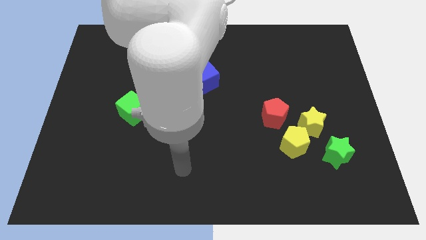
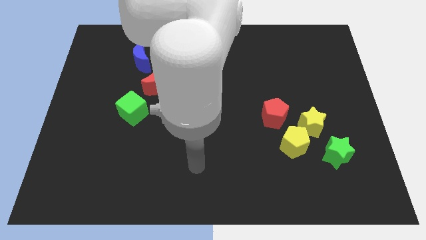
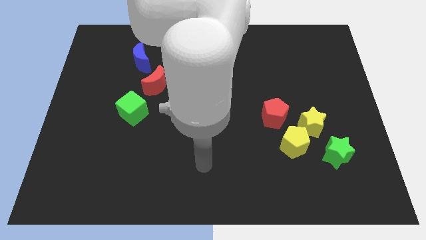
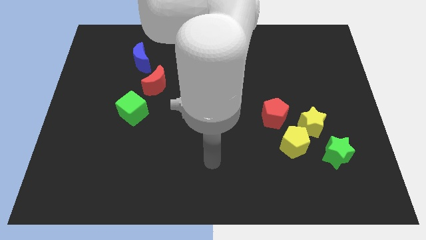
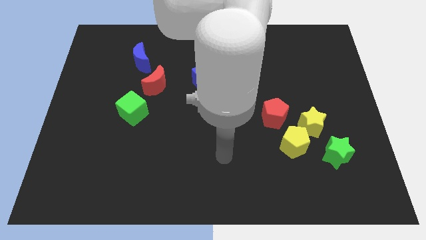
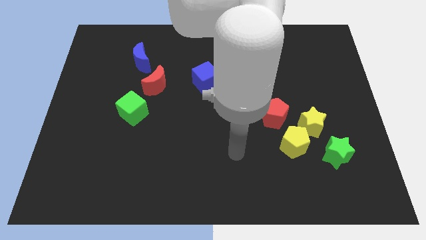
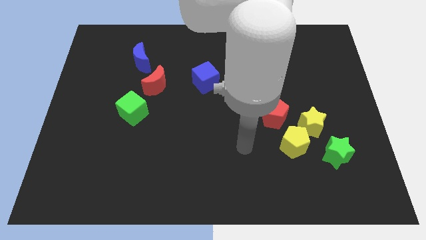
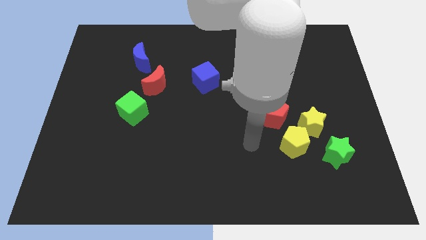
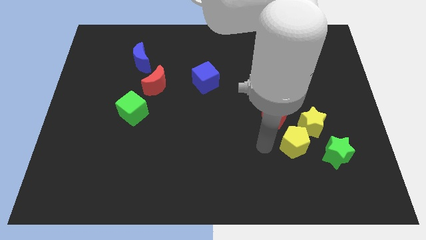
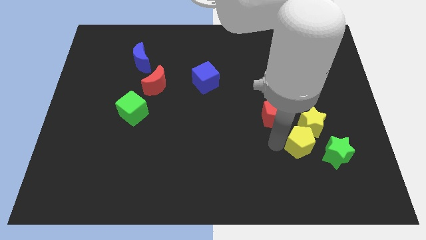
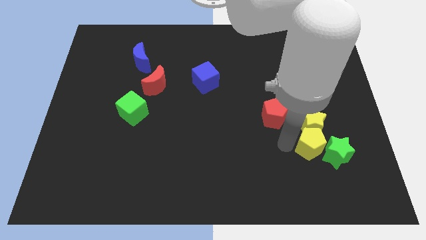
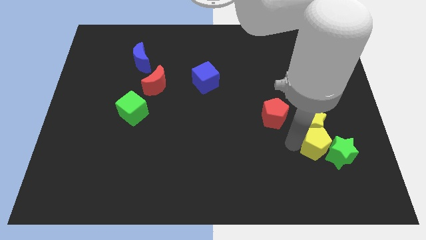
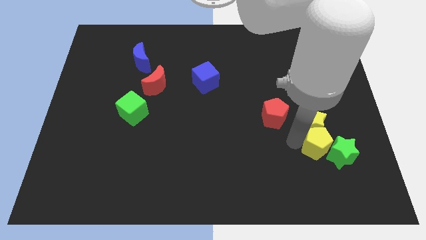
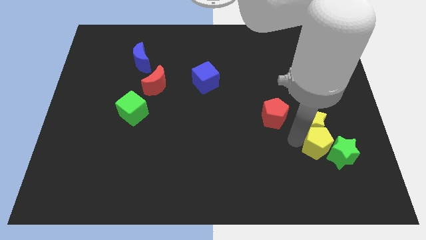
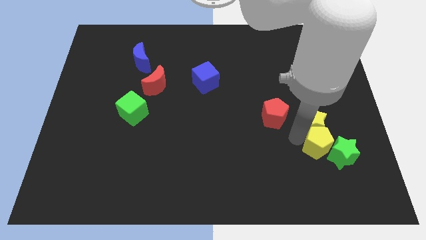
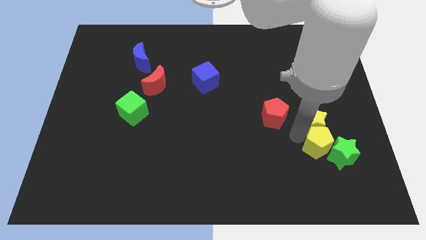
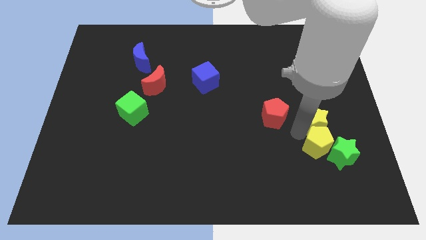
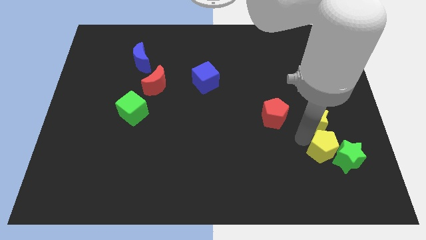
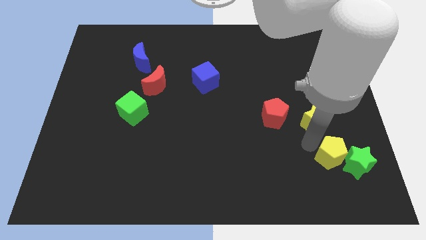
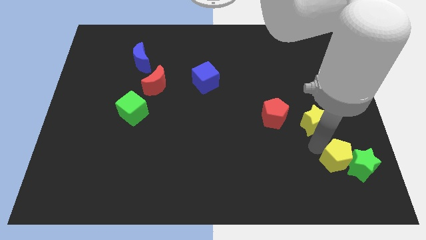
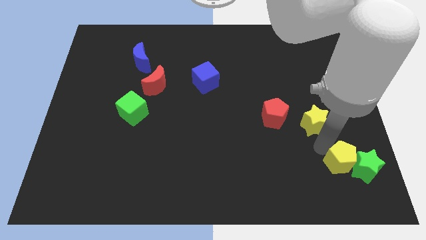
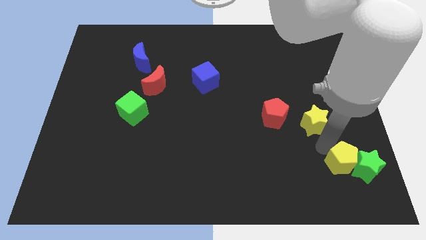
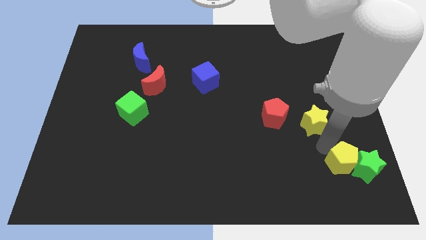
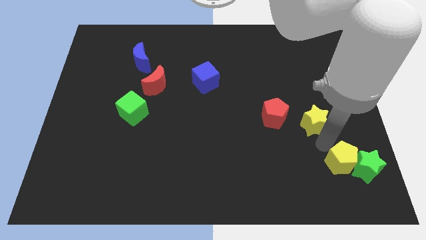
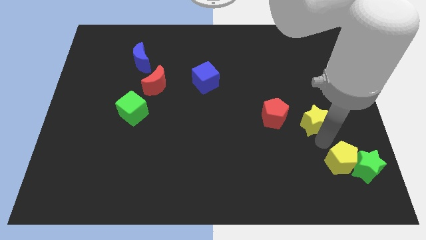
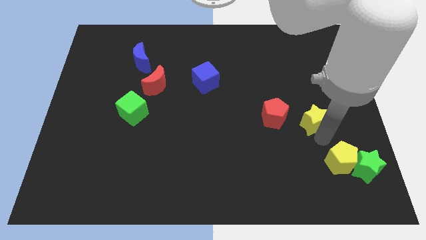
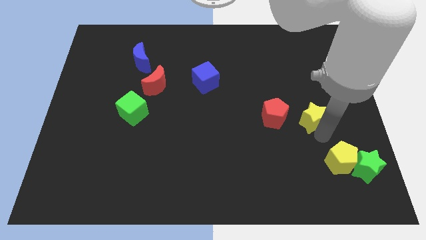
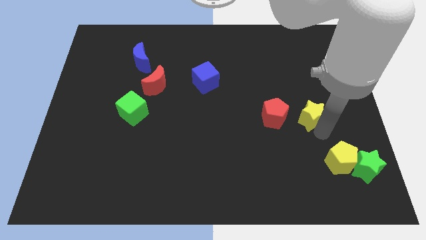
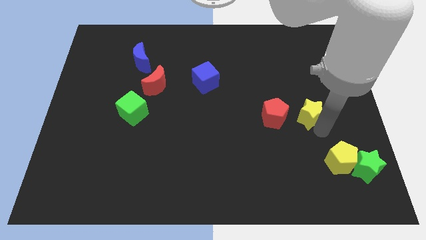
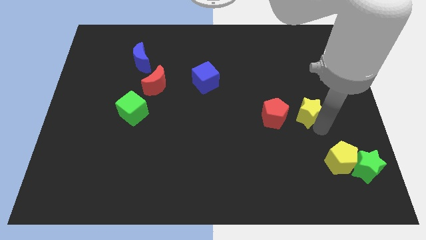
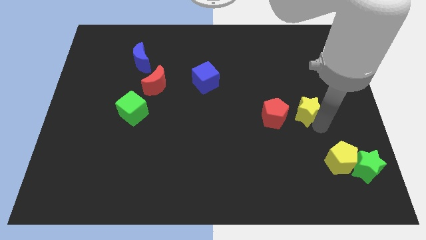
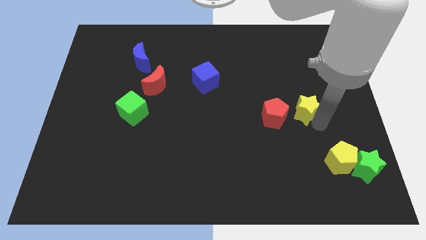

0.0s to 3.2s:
separate the yellow star from the group

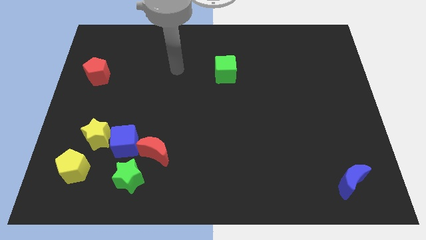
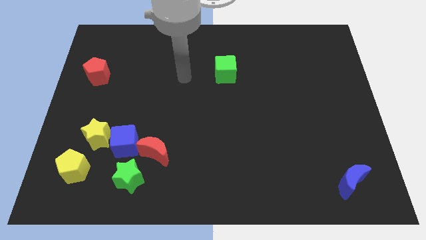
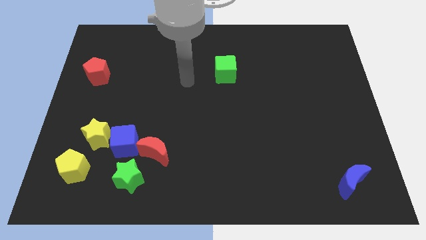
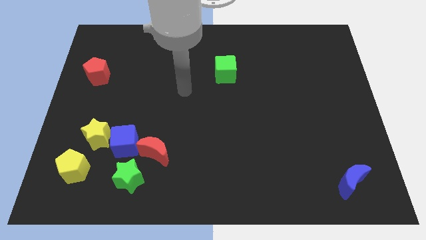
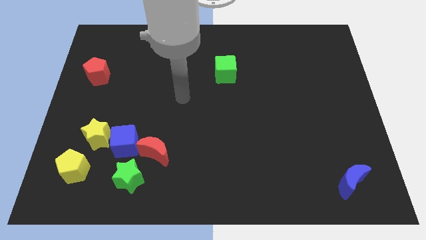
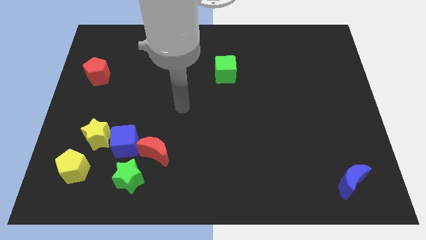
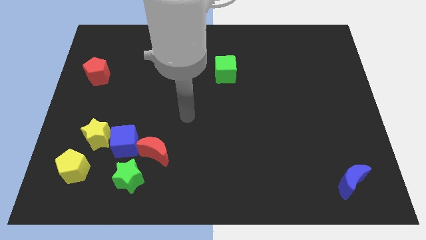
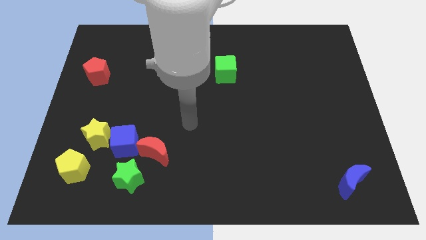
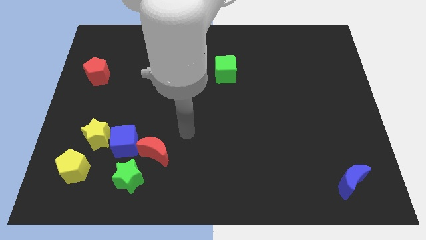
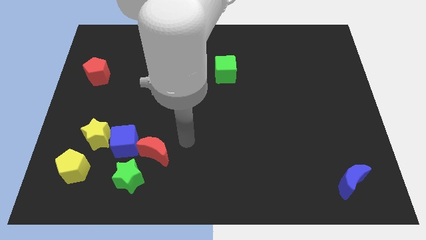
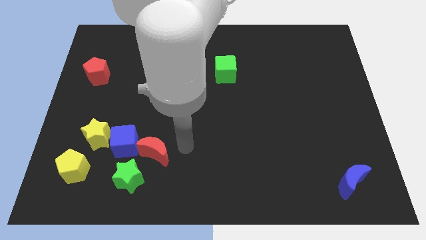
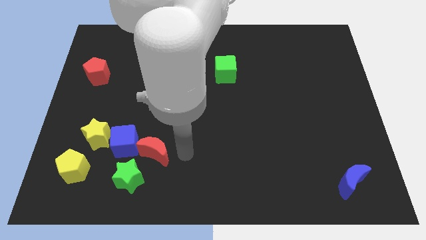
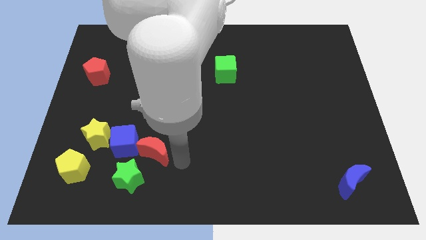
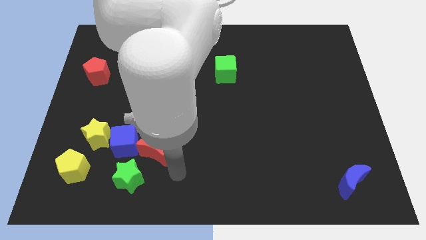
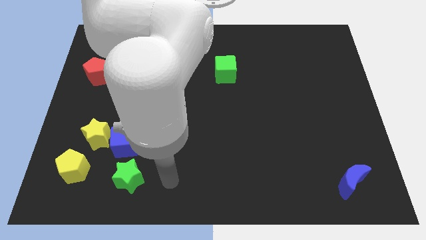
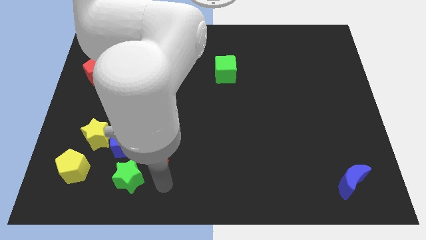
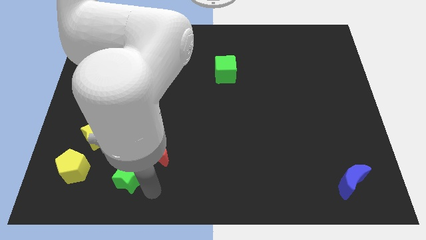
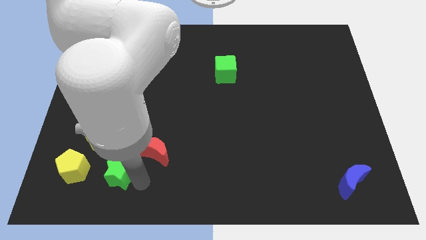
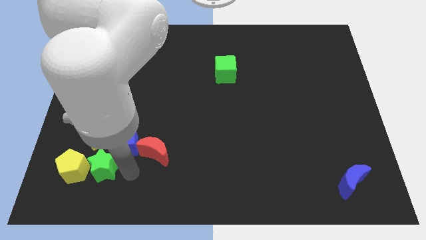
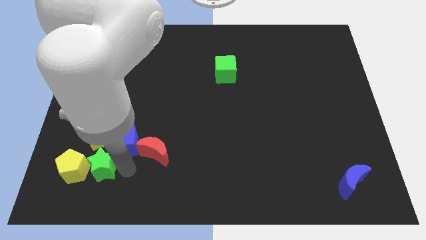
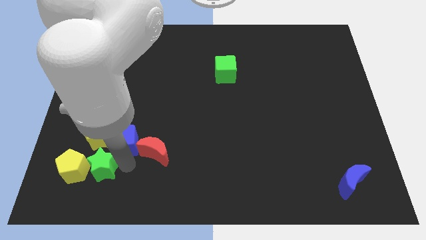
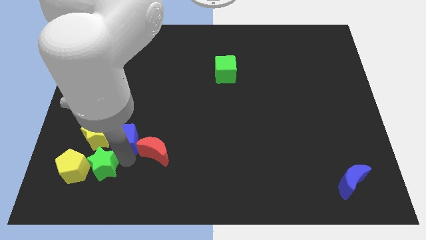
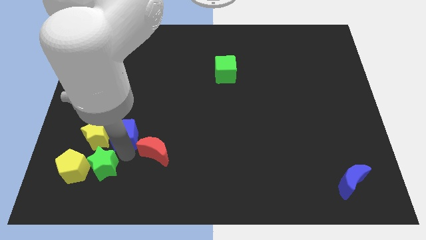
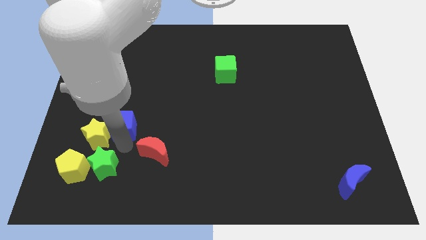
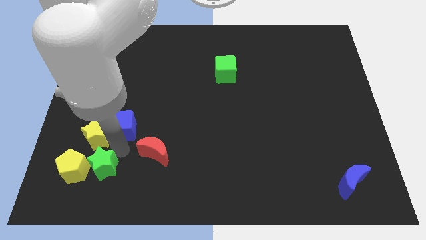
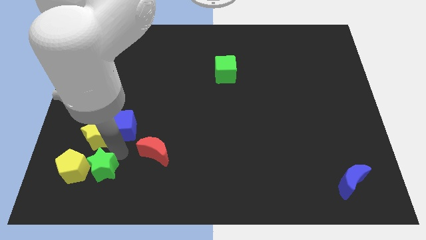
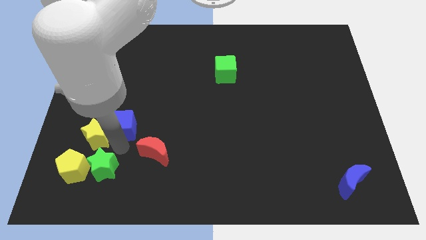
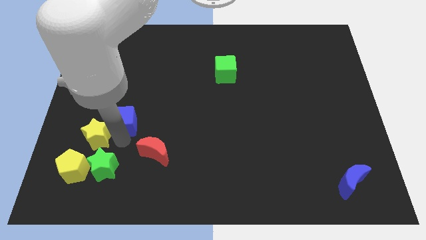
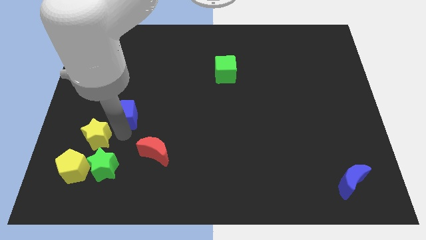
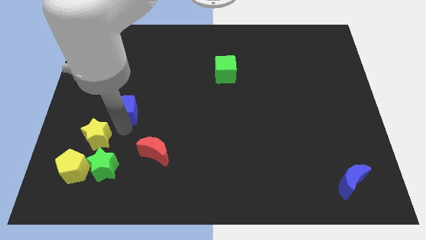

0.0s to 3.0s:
move the blue cube away from the yellow star, red moon, and green star

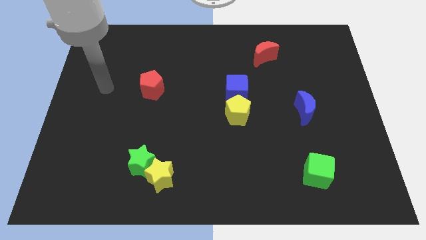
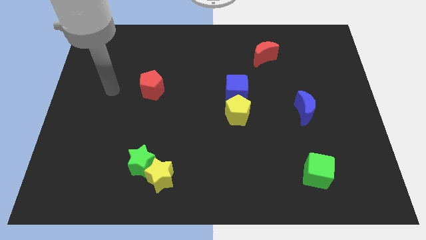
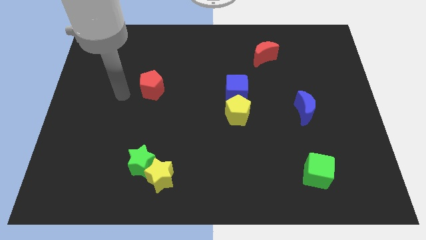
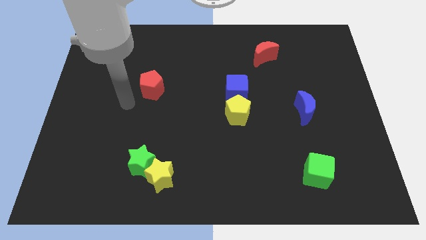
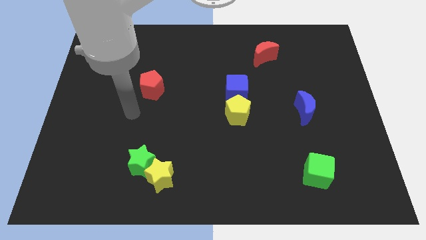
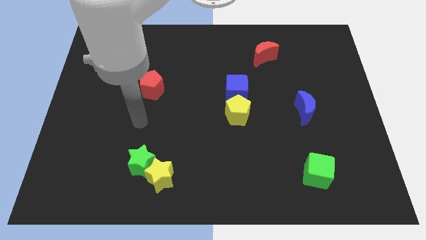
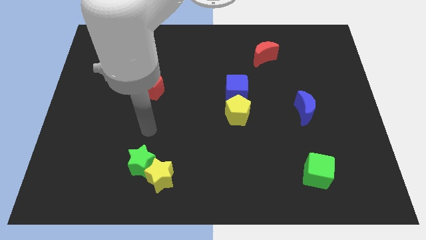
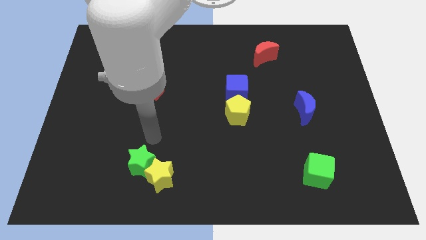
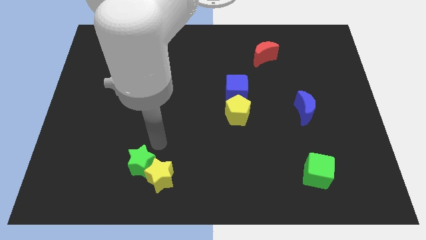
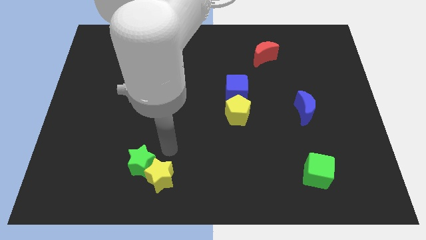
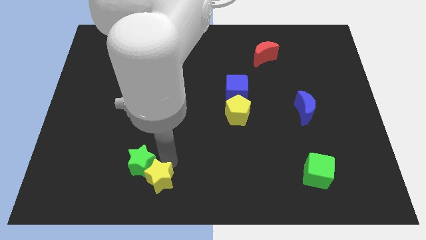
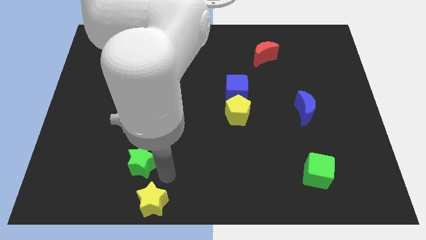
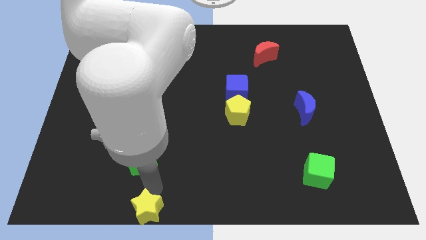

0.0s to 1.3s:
pull the green star apart from the yellow star

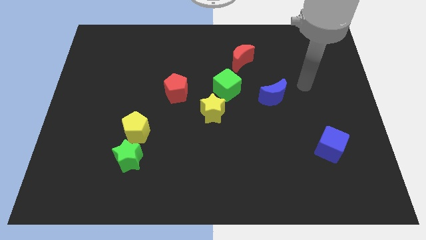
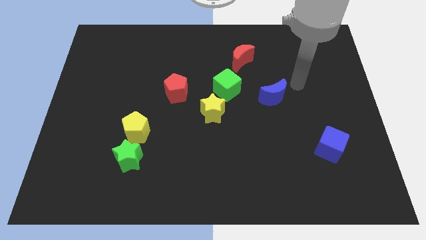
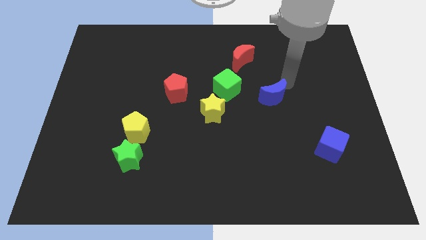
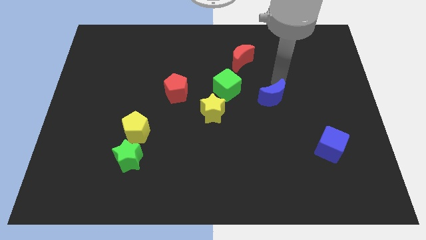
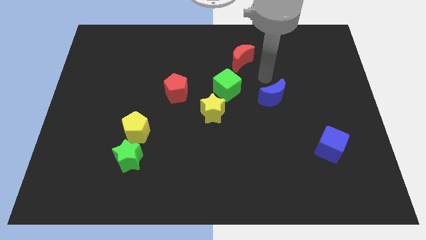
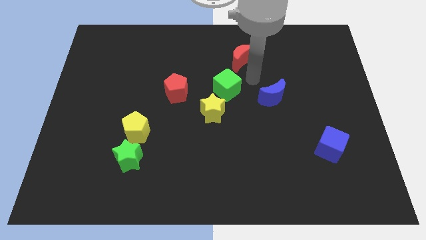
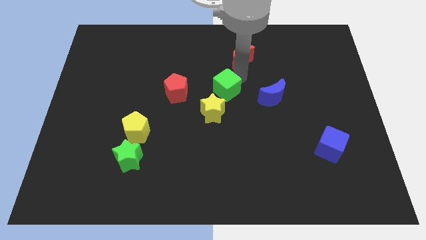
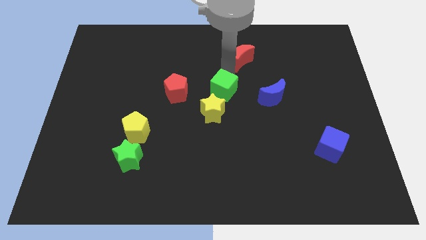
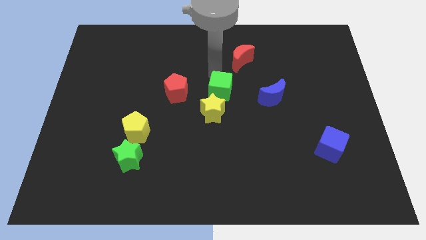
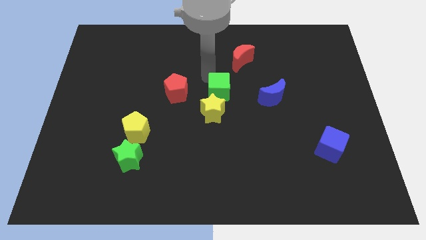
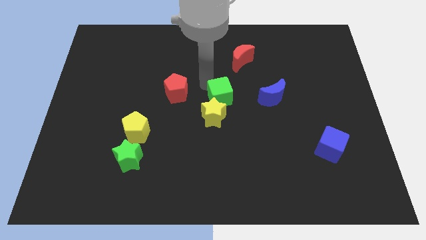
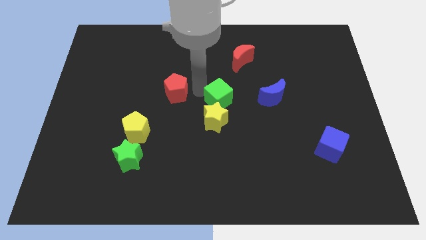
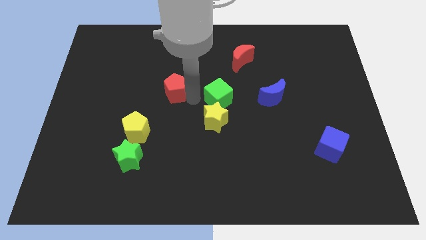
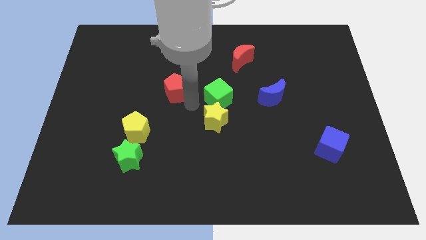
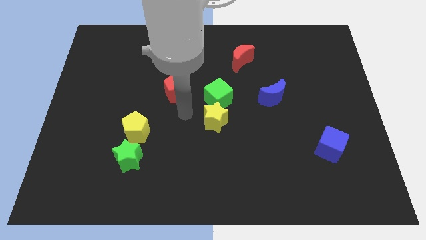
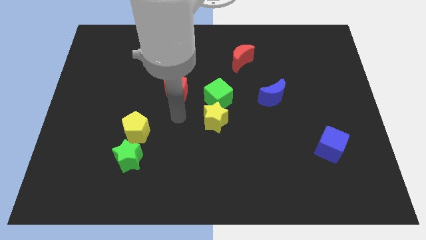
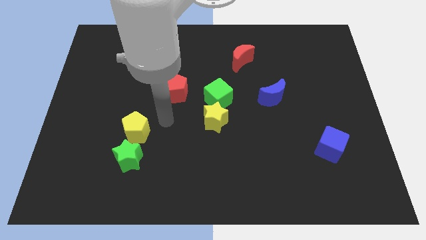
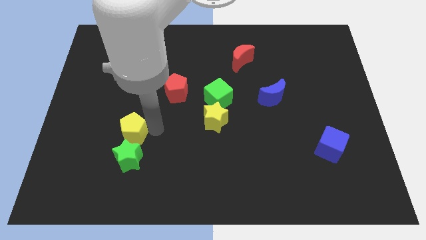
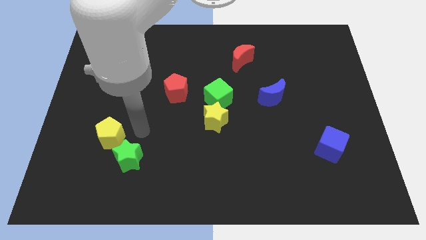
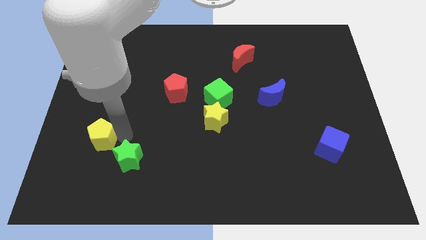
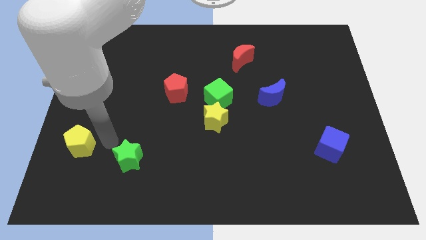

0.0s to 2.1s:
move the green star away from the yellow pentagon
